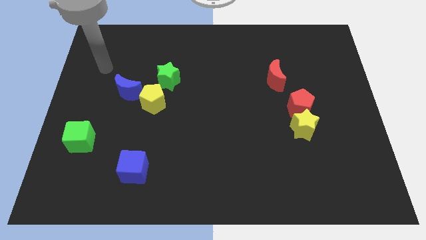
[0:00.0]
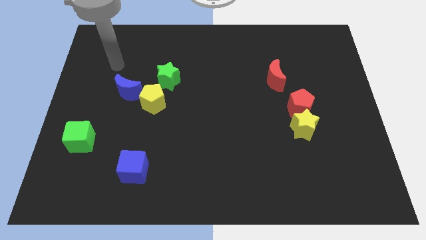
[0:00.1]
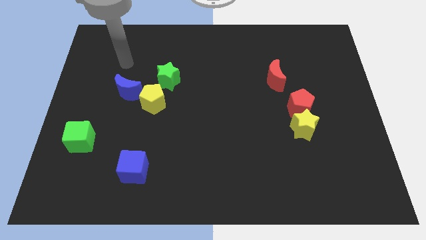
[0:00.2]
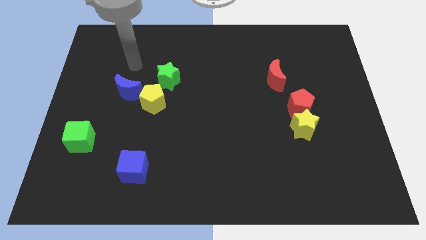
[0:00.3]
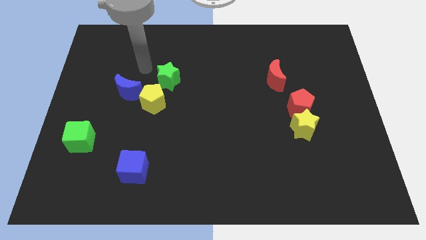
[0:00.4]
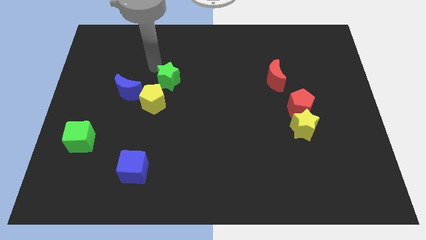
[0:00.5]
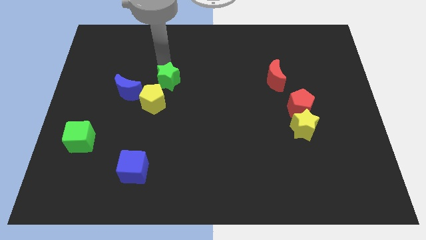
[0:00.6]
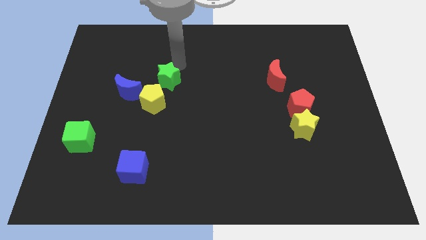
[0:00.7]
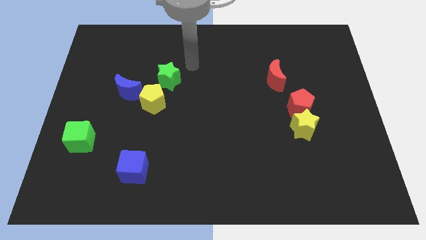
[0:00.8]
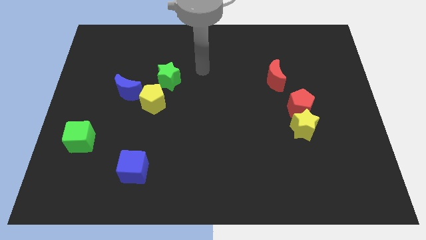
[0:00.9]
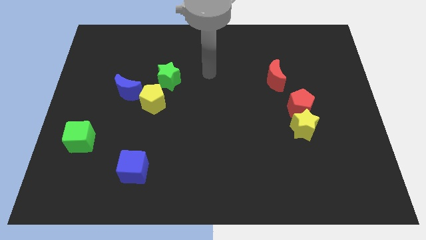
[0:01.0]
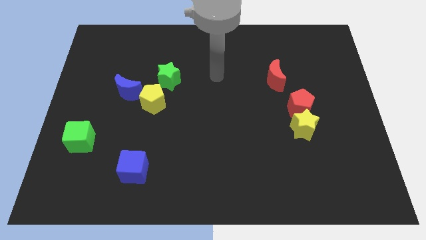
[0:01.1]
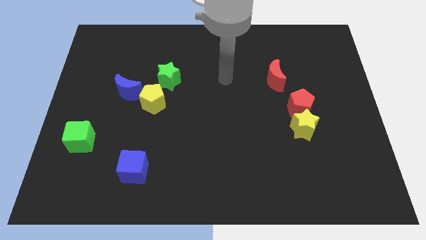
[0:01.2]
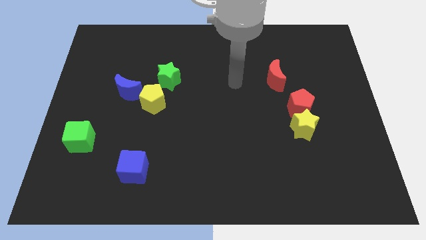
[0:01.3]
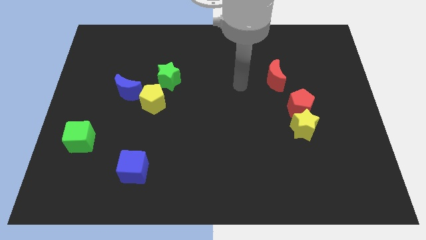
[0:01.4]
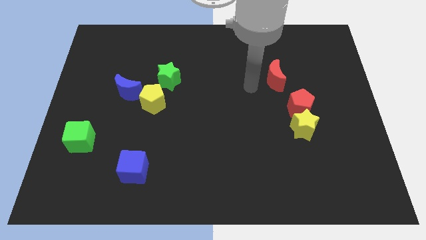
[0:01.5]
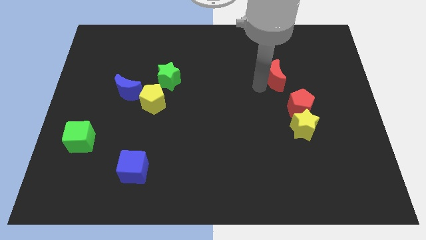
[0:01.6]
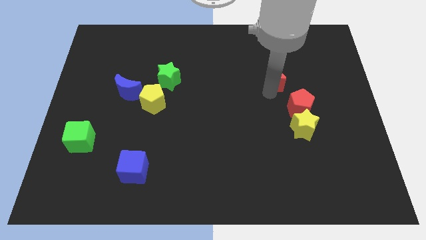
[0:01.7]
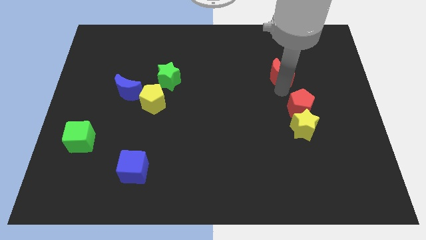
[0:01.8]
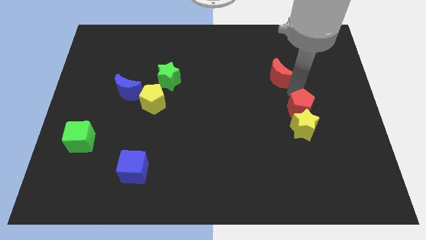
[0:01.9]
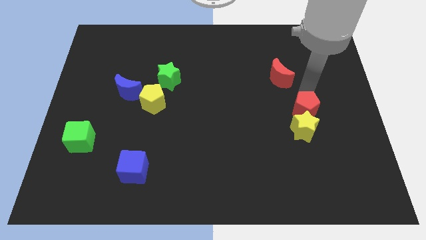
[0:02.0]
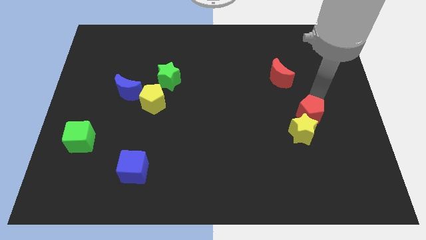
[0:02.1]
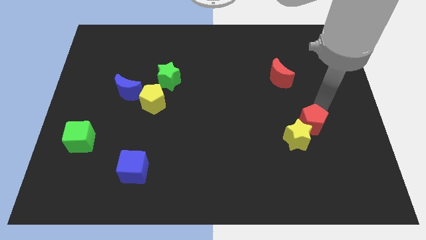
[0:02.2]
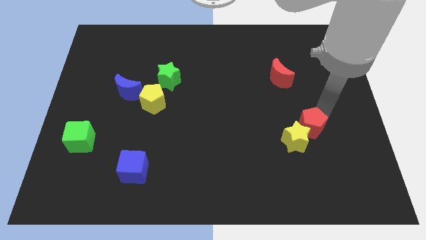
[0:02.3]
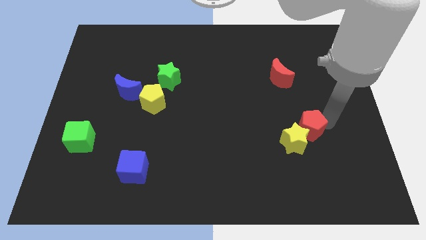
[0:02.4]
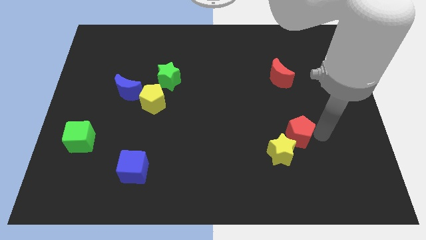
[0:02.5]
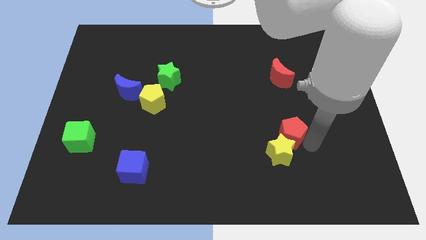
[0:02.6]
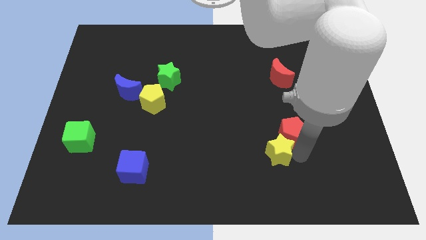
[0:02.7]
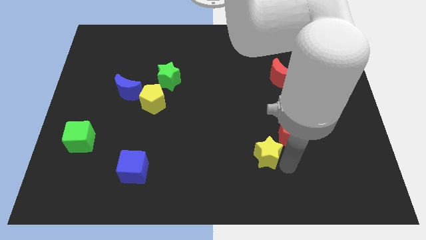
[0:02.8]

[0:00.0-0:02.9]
slide the yellow star somewhat left

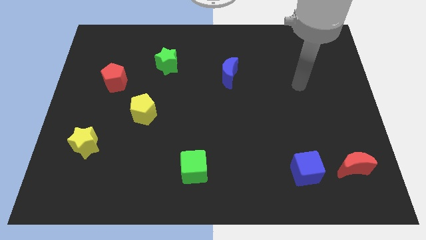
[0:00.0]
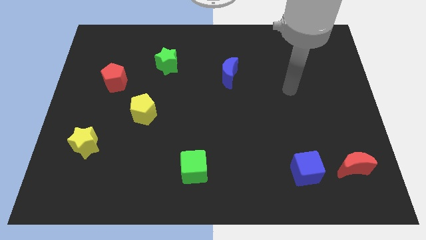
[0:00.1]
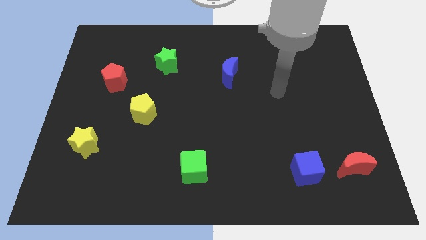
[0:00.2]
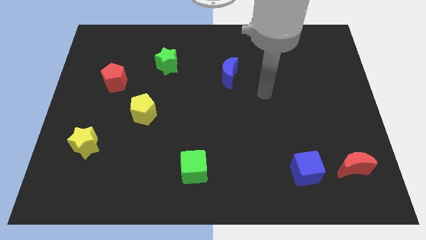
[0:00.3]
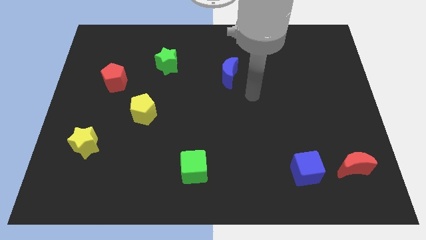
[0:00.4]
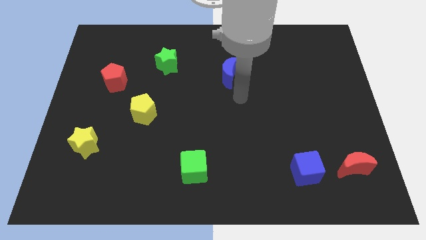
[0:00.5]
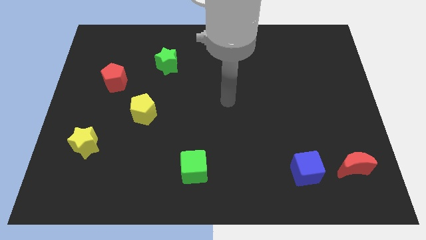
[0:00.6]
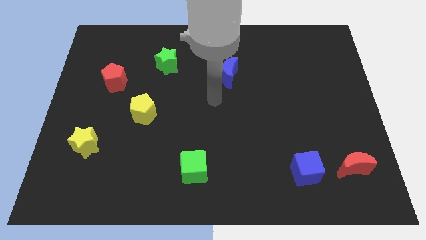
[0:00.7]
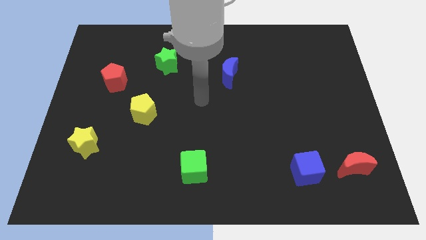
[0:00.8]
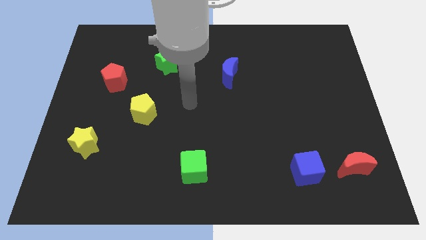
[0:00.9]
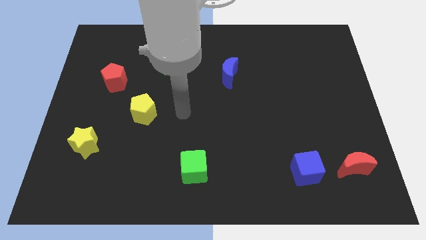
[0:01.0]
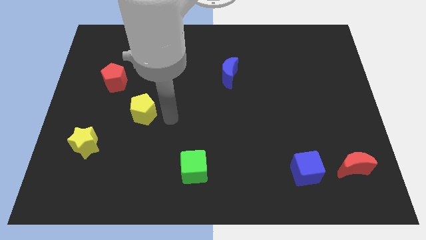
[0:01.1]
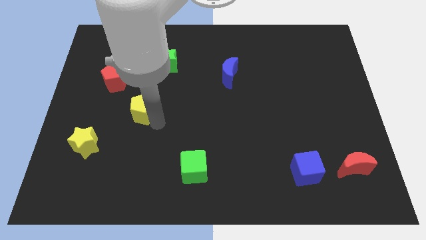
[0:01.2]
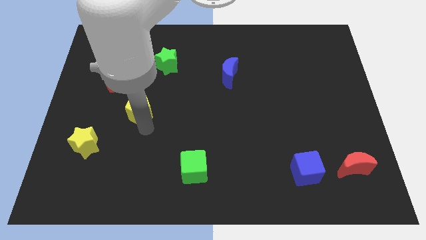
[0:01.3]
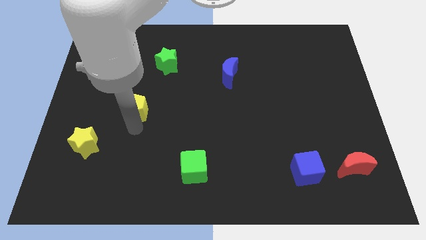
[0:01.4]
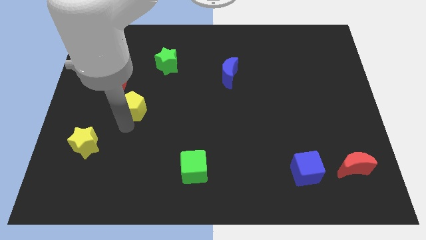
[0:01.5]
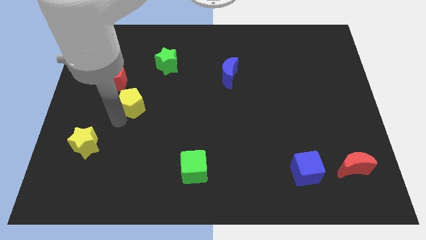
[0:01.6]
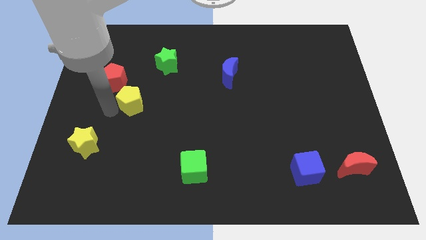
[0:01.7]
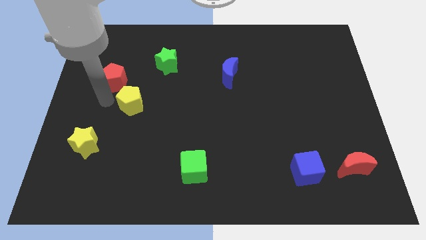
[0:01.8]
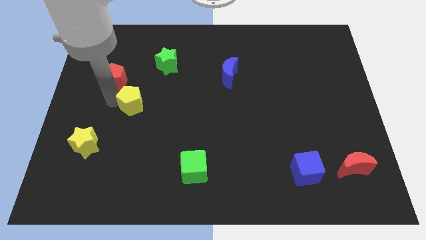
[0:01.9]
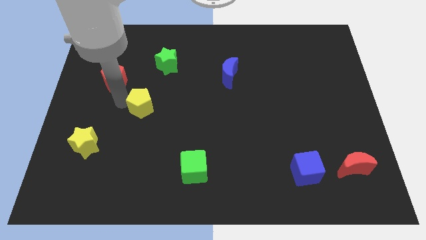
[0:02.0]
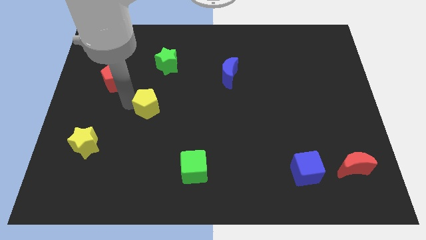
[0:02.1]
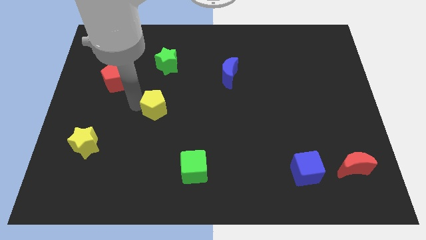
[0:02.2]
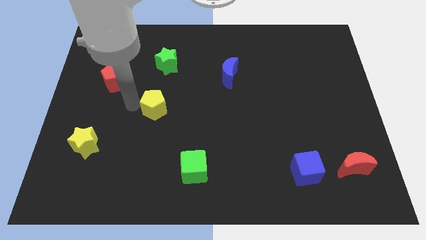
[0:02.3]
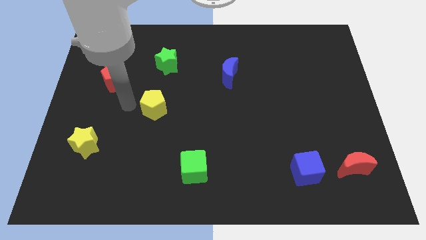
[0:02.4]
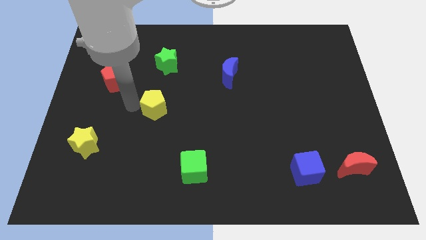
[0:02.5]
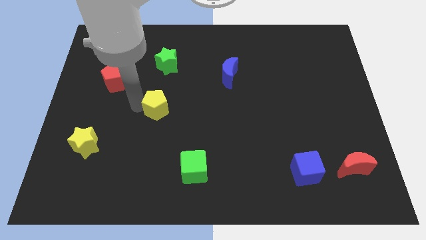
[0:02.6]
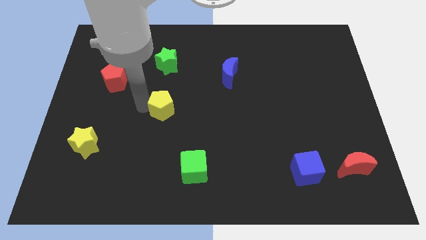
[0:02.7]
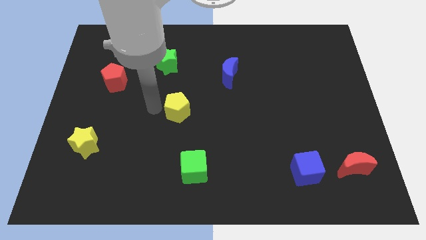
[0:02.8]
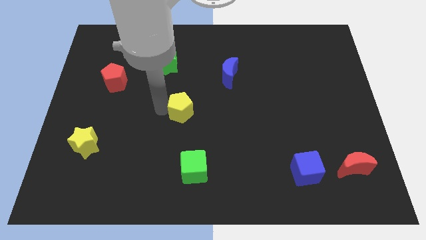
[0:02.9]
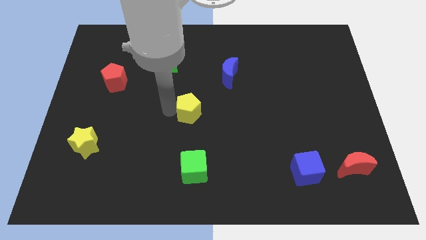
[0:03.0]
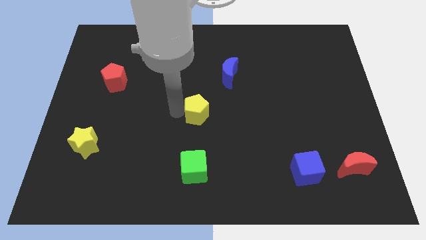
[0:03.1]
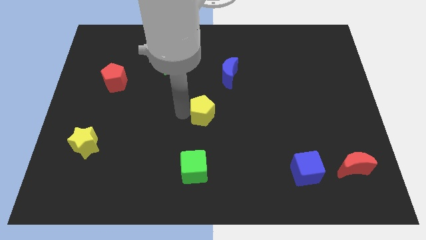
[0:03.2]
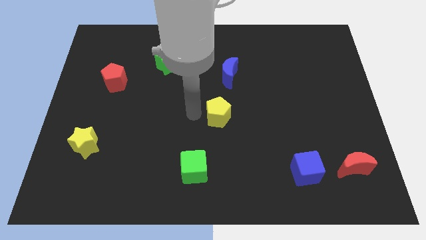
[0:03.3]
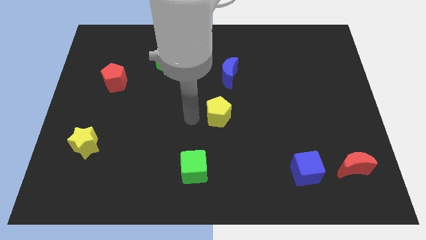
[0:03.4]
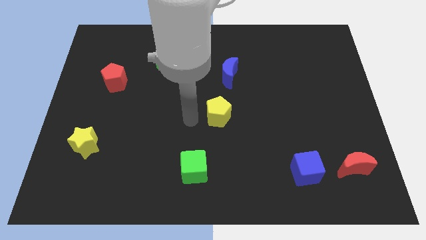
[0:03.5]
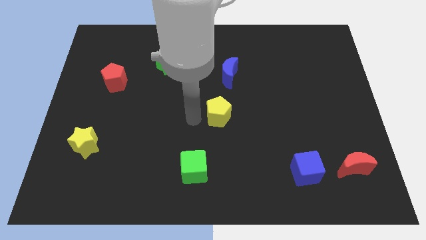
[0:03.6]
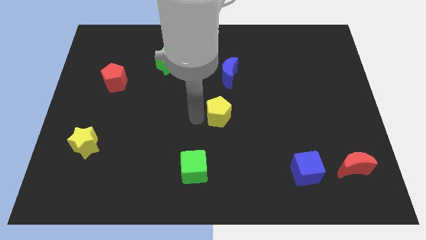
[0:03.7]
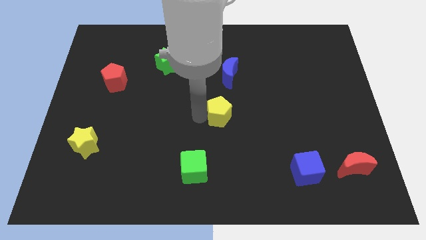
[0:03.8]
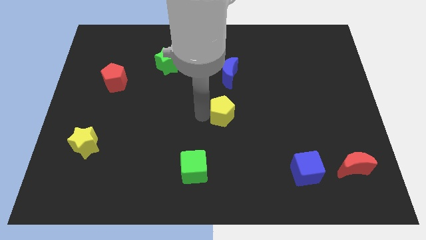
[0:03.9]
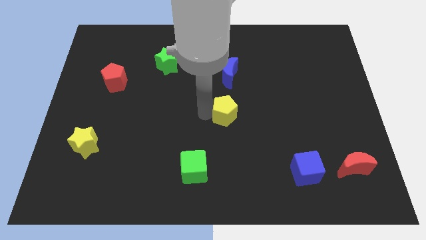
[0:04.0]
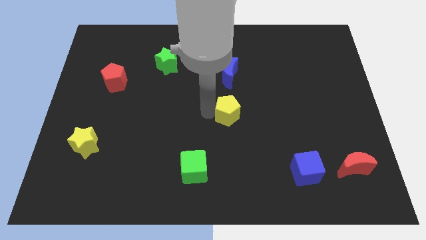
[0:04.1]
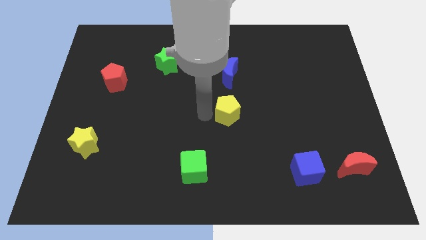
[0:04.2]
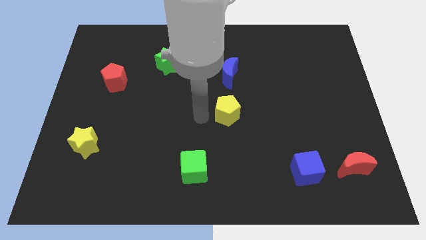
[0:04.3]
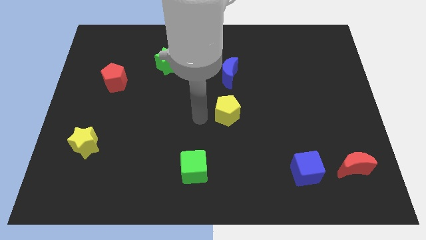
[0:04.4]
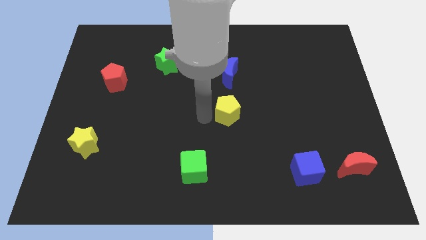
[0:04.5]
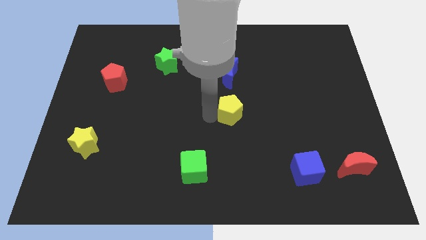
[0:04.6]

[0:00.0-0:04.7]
slide the yellow pentagon to the right

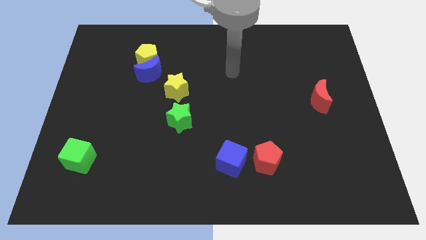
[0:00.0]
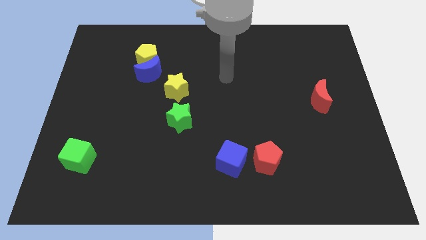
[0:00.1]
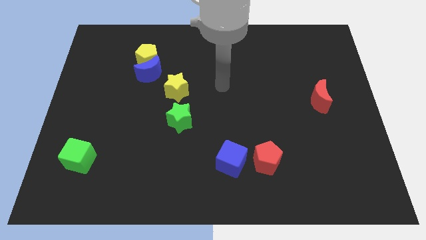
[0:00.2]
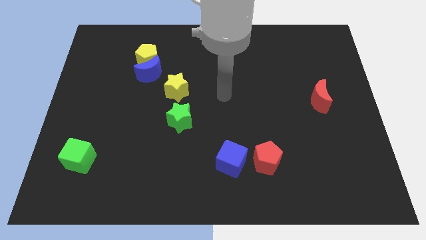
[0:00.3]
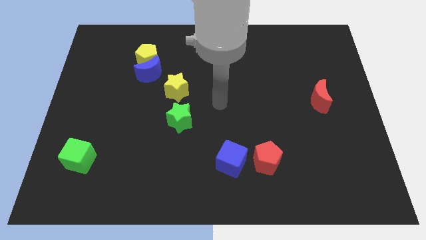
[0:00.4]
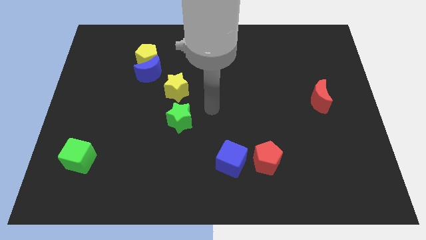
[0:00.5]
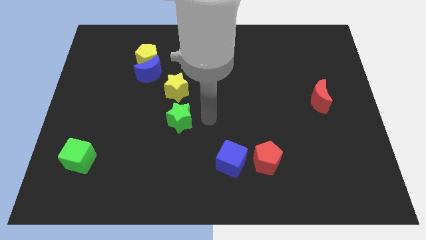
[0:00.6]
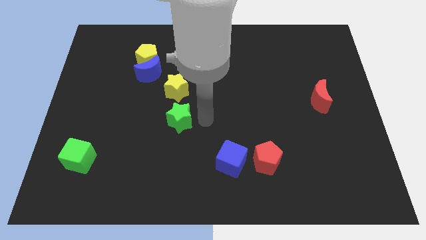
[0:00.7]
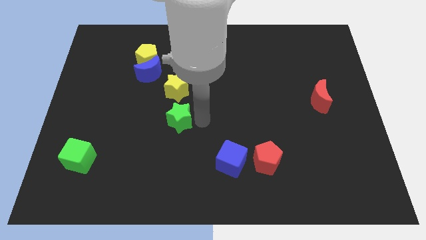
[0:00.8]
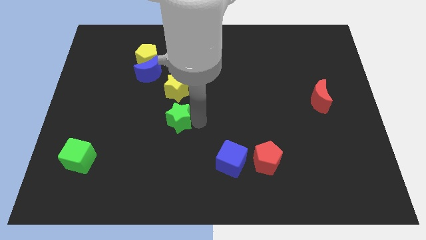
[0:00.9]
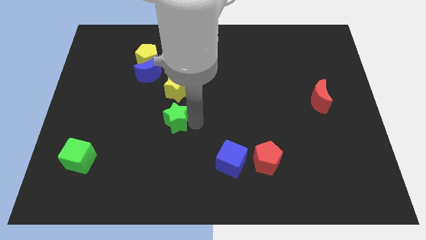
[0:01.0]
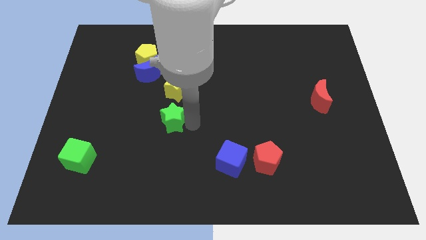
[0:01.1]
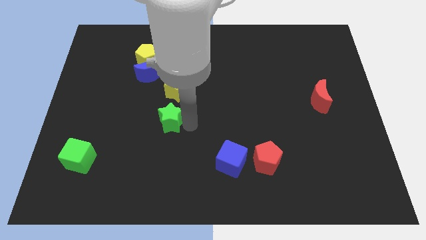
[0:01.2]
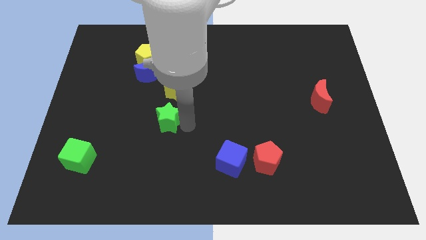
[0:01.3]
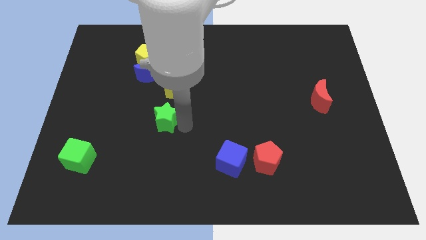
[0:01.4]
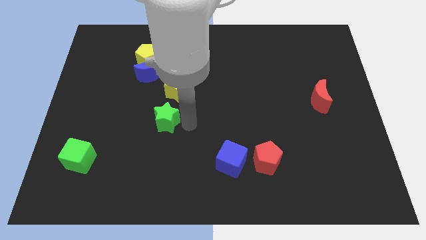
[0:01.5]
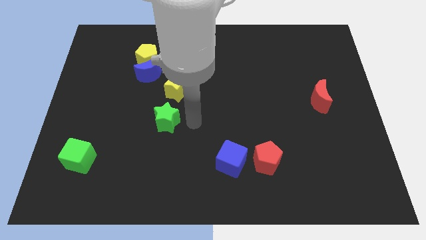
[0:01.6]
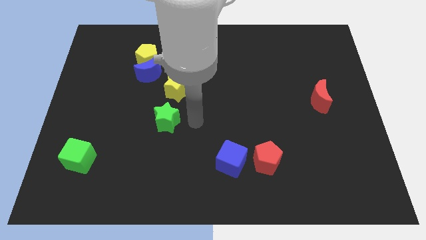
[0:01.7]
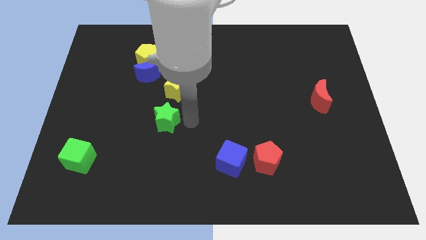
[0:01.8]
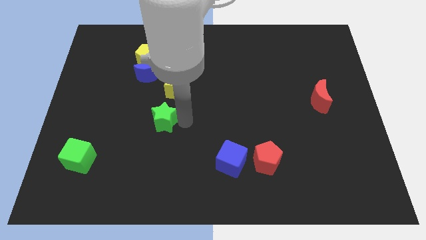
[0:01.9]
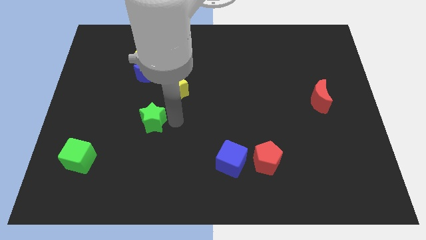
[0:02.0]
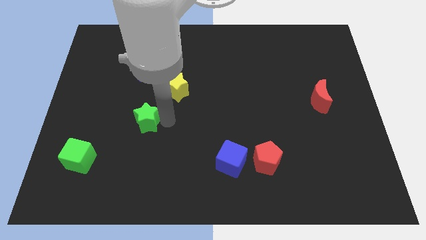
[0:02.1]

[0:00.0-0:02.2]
push the green star slightly to the left
